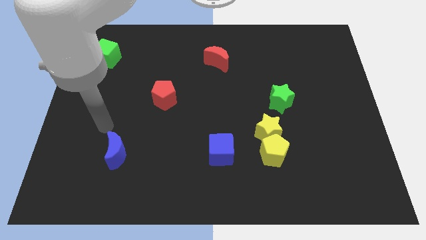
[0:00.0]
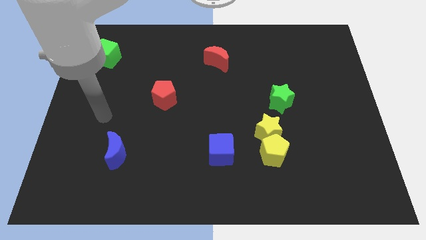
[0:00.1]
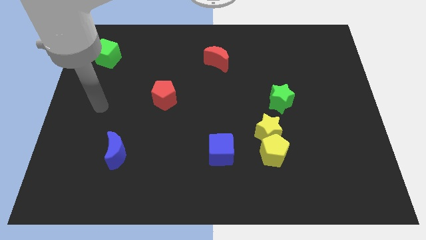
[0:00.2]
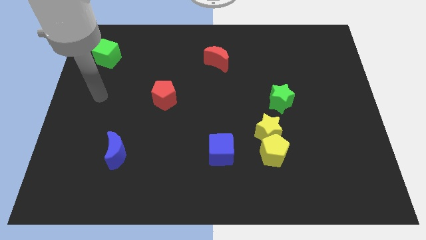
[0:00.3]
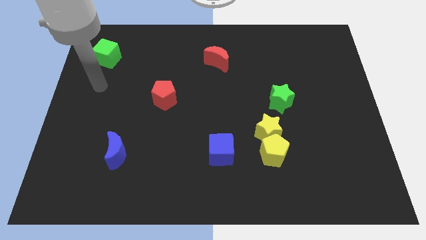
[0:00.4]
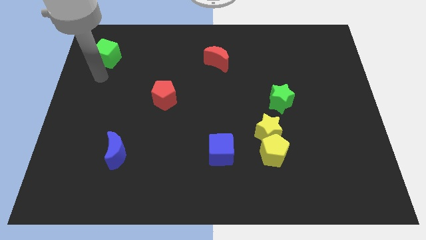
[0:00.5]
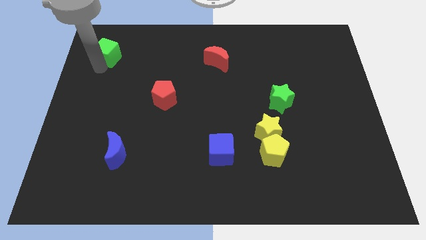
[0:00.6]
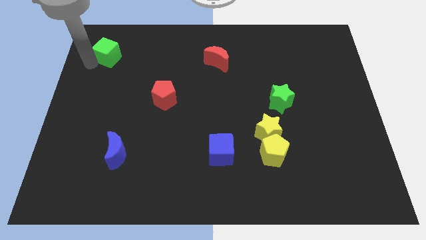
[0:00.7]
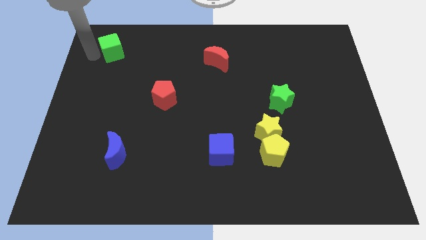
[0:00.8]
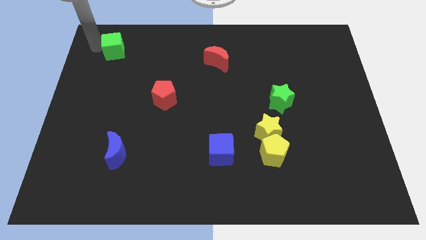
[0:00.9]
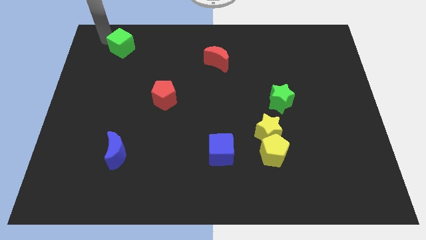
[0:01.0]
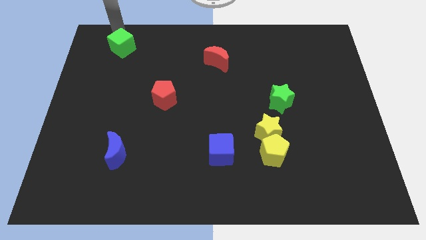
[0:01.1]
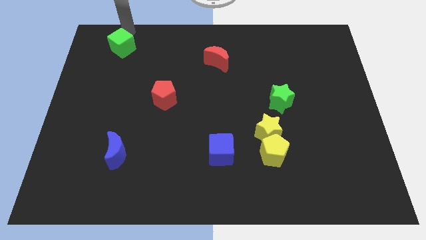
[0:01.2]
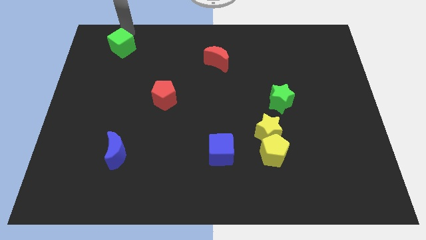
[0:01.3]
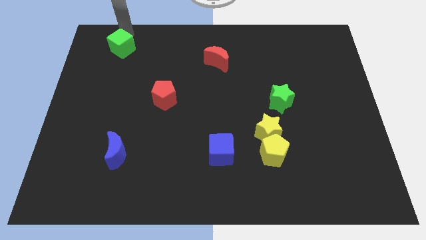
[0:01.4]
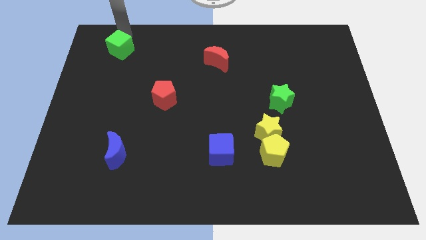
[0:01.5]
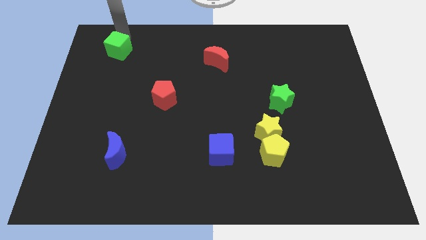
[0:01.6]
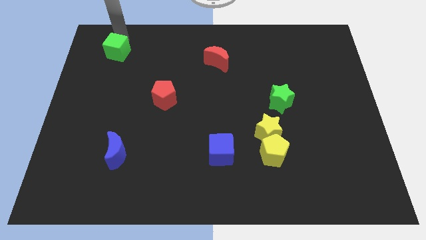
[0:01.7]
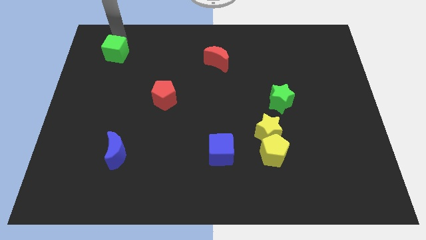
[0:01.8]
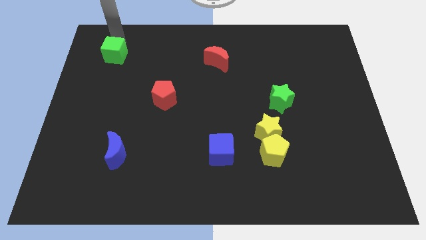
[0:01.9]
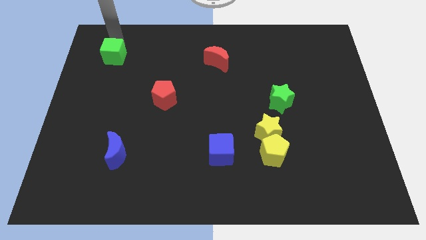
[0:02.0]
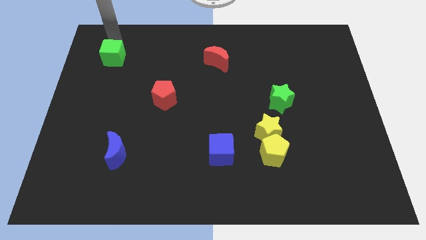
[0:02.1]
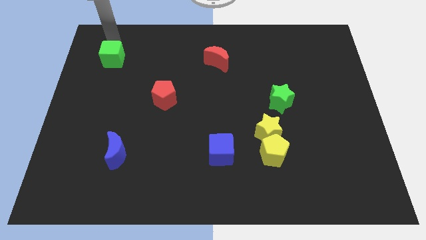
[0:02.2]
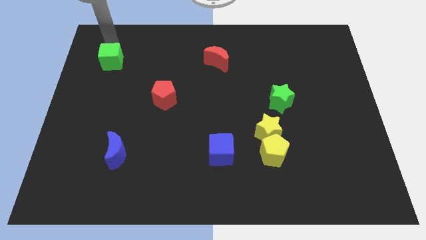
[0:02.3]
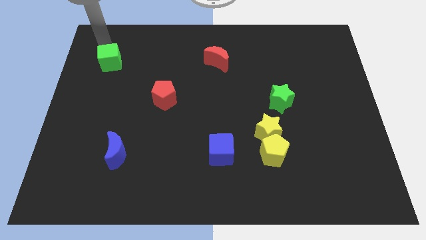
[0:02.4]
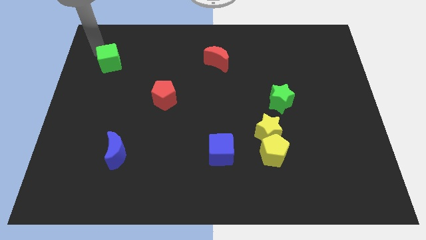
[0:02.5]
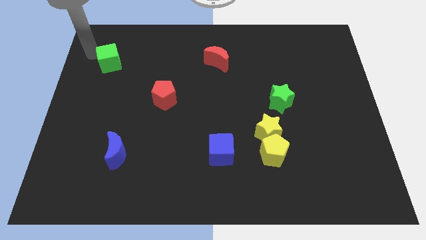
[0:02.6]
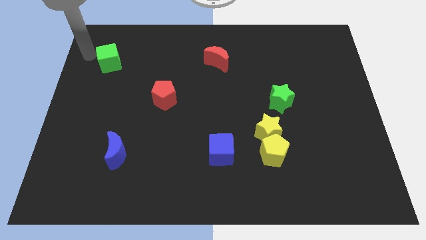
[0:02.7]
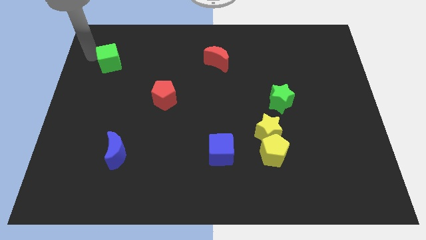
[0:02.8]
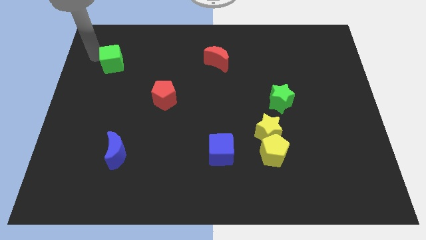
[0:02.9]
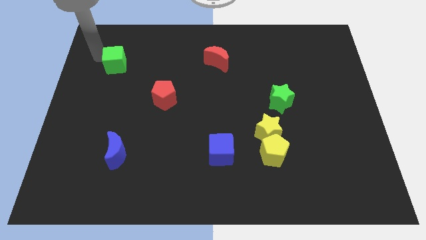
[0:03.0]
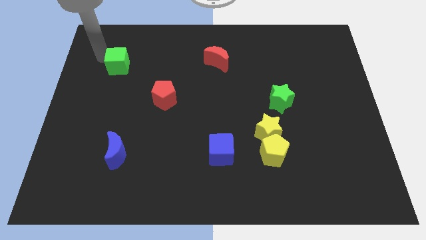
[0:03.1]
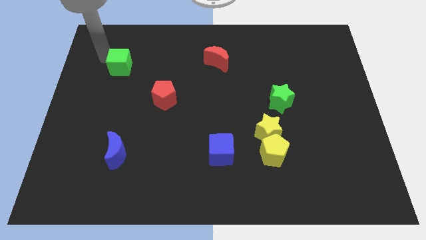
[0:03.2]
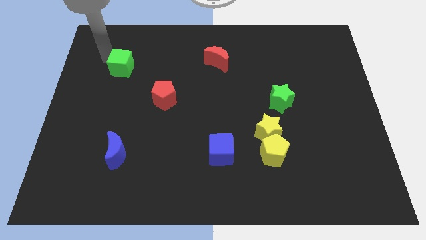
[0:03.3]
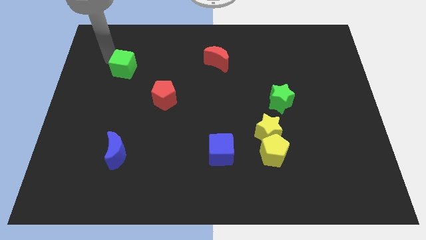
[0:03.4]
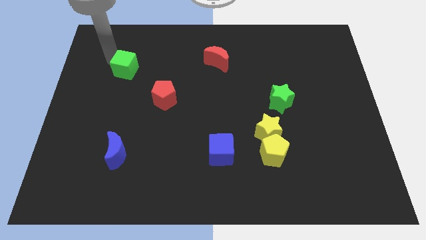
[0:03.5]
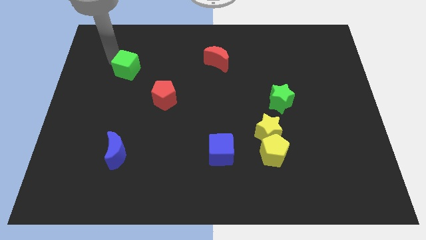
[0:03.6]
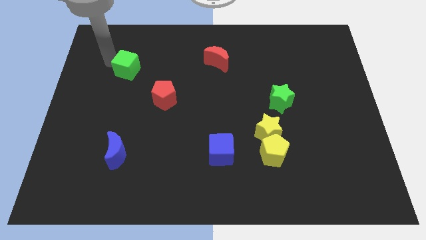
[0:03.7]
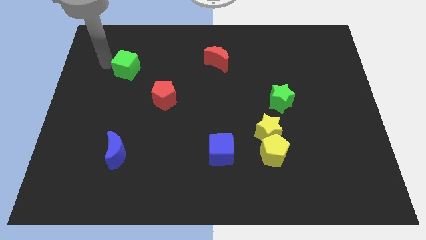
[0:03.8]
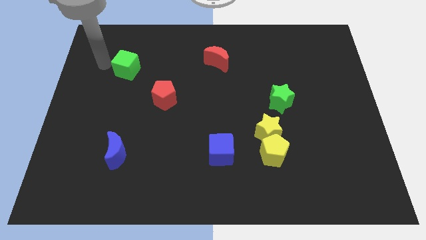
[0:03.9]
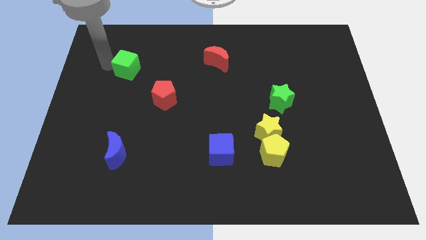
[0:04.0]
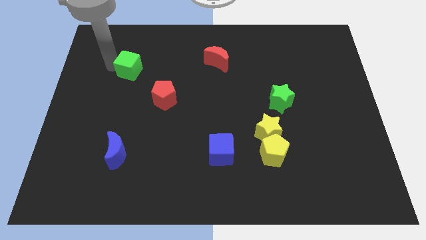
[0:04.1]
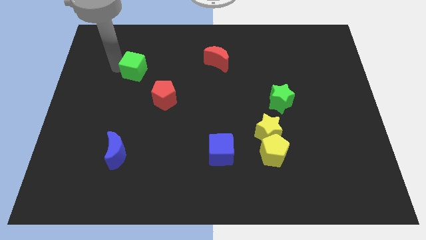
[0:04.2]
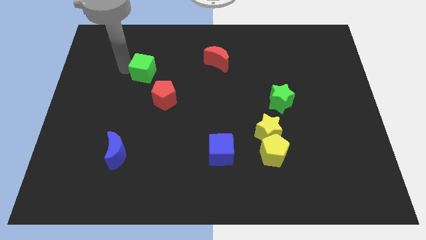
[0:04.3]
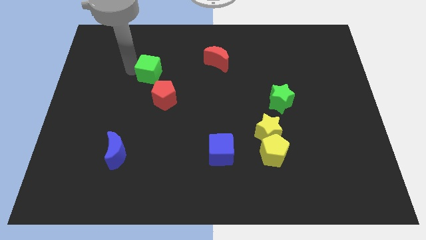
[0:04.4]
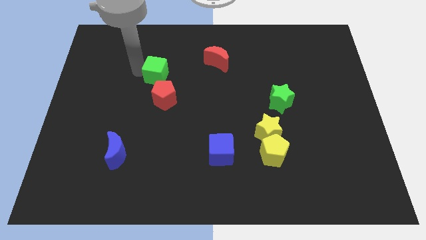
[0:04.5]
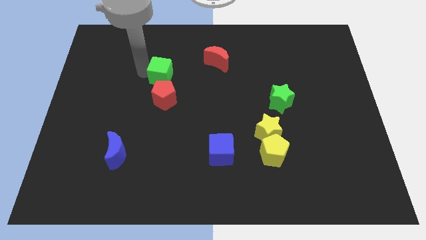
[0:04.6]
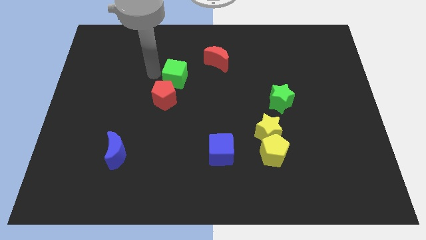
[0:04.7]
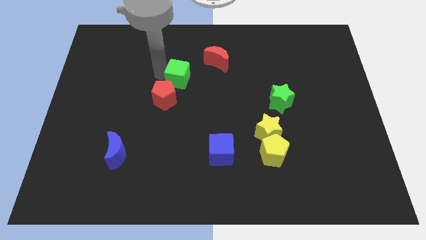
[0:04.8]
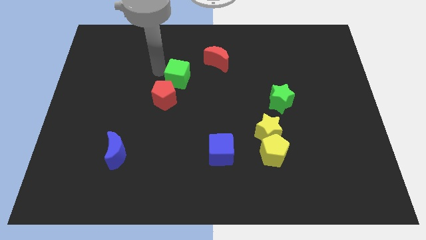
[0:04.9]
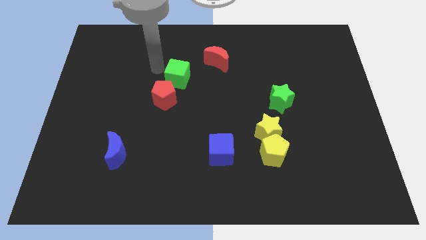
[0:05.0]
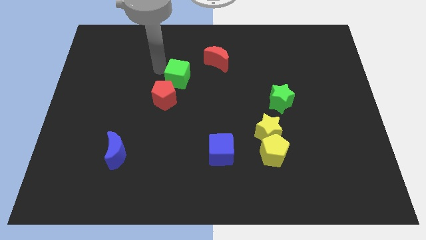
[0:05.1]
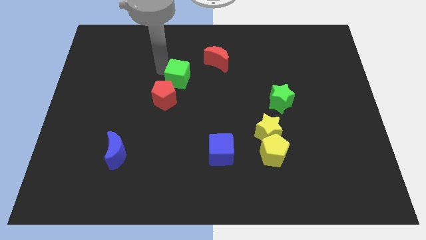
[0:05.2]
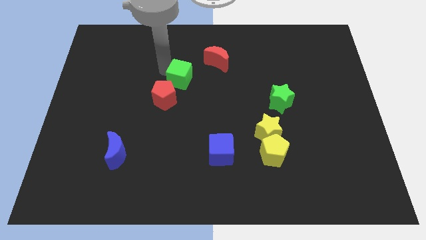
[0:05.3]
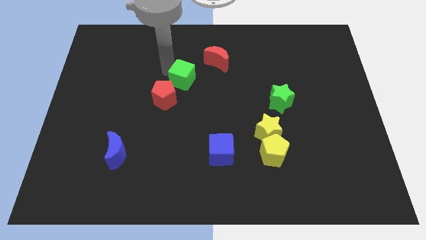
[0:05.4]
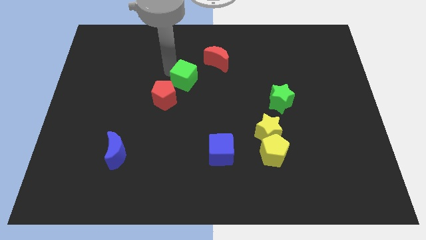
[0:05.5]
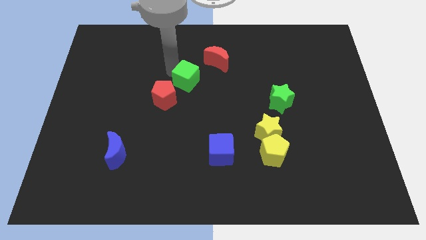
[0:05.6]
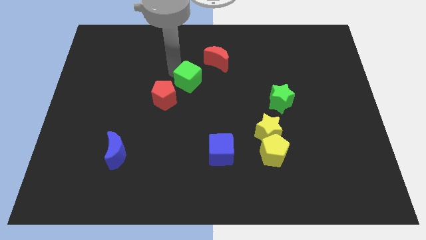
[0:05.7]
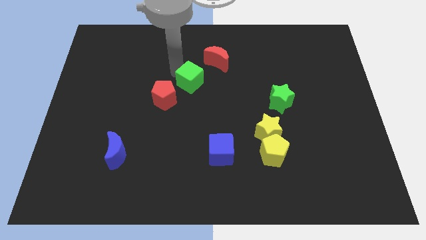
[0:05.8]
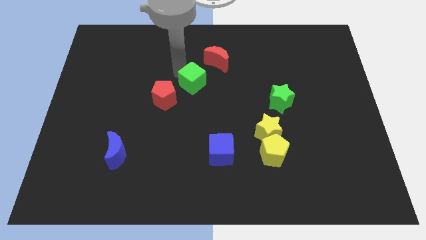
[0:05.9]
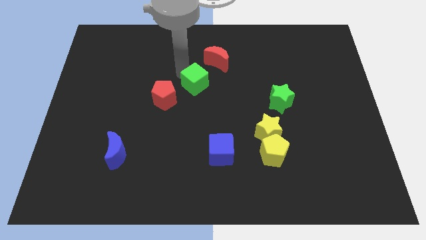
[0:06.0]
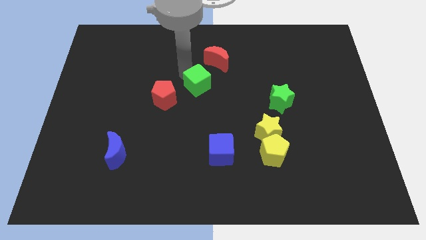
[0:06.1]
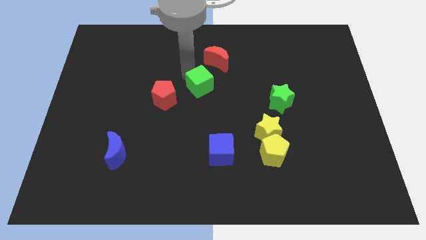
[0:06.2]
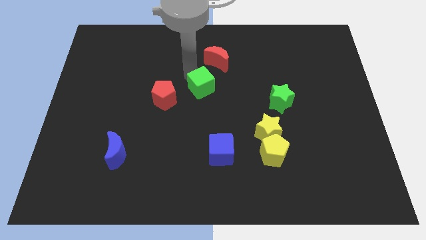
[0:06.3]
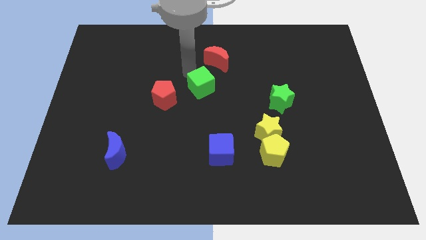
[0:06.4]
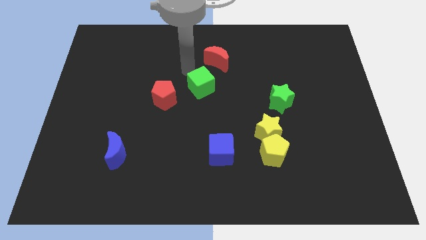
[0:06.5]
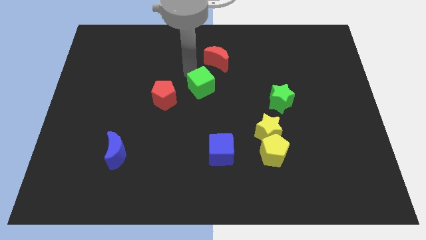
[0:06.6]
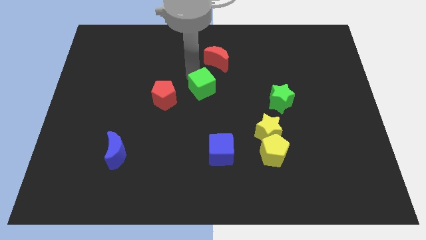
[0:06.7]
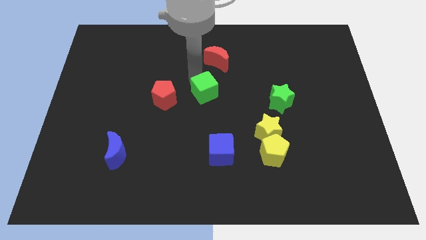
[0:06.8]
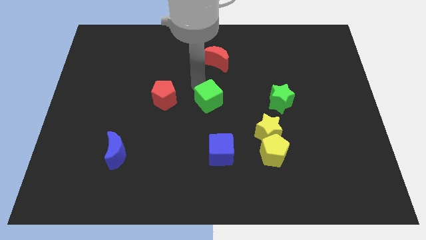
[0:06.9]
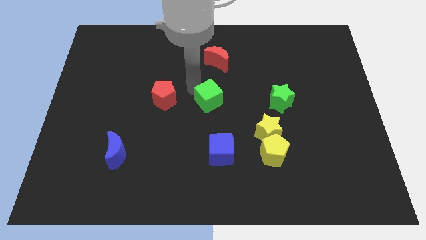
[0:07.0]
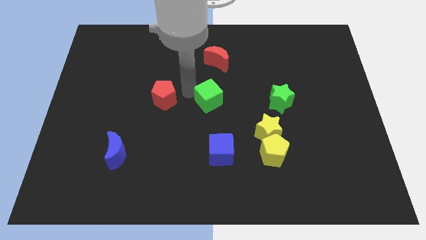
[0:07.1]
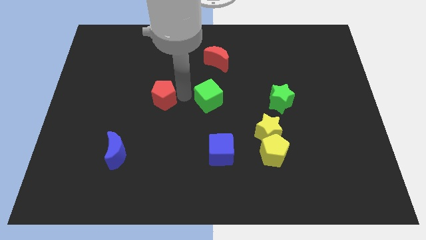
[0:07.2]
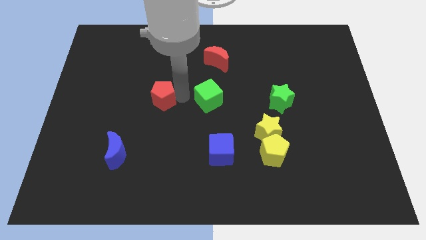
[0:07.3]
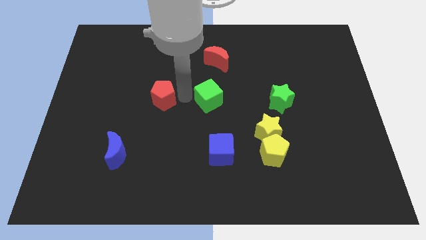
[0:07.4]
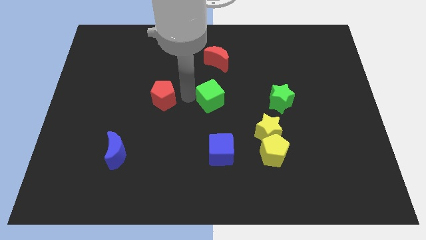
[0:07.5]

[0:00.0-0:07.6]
move the green cube just left of the green star
